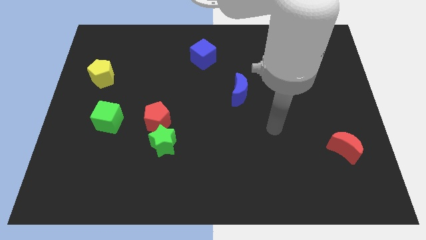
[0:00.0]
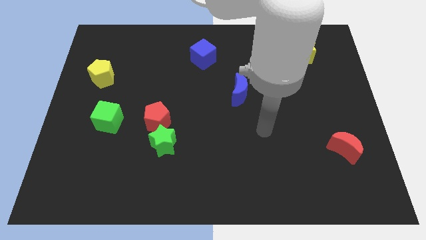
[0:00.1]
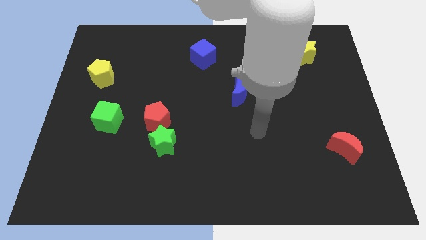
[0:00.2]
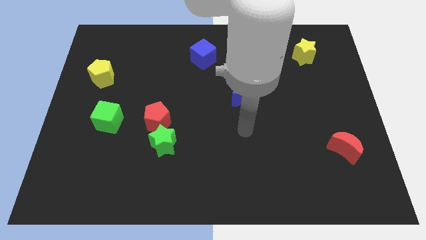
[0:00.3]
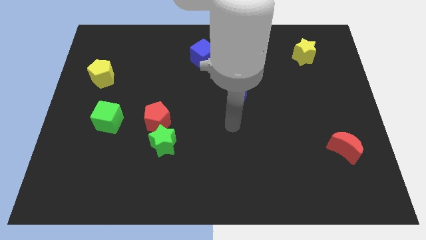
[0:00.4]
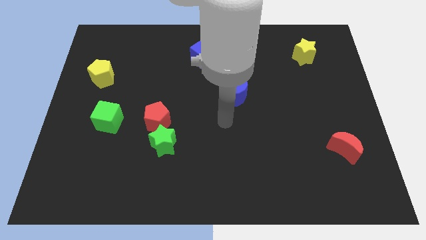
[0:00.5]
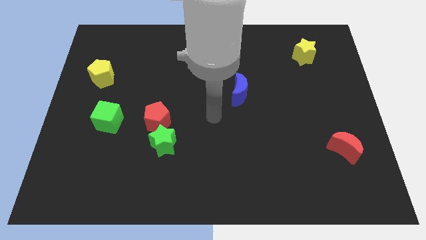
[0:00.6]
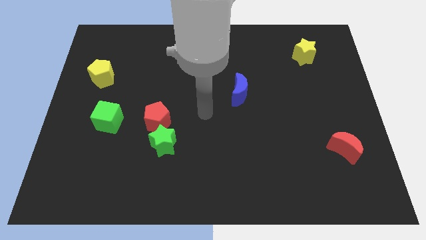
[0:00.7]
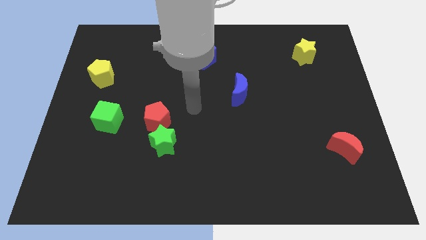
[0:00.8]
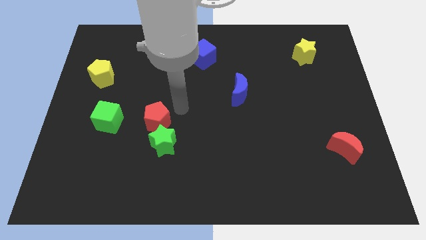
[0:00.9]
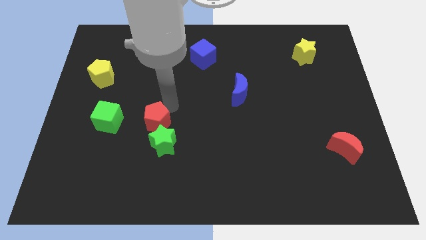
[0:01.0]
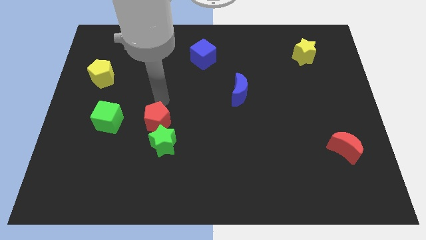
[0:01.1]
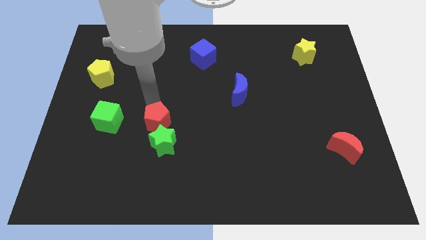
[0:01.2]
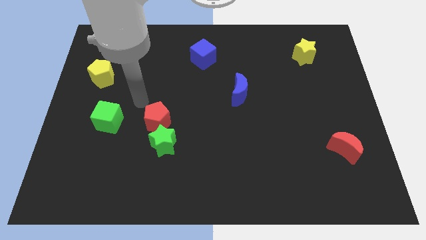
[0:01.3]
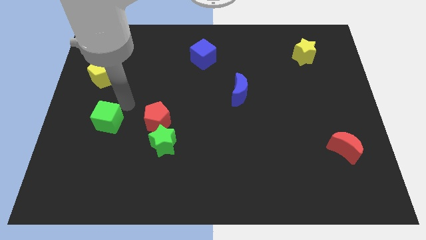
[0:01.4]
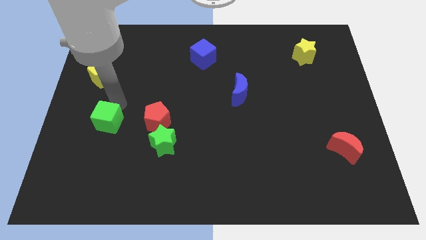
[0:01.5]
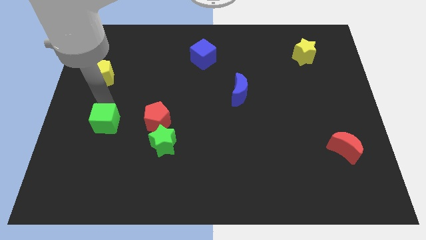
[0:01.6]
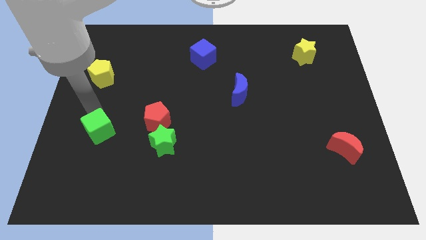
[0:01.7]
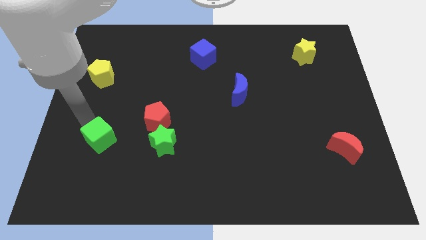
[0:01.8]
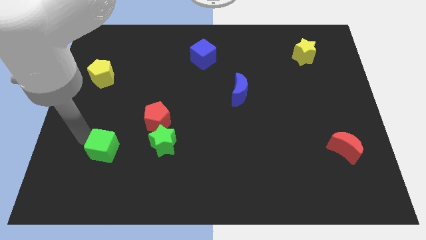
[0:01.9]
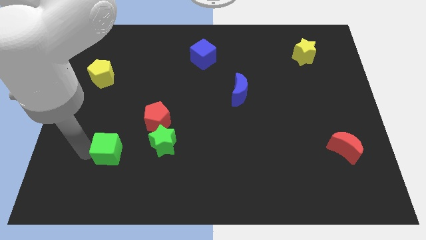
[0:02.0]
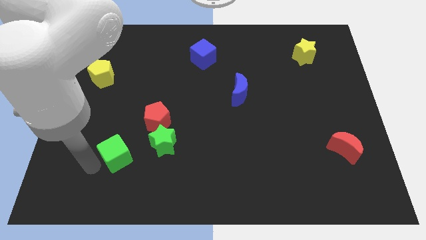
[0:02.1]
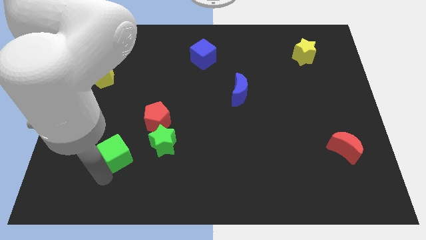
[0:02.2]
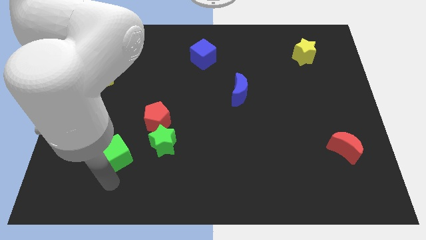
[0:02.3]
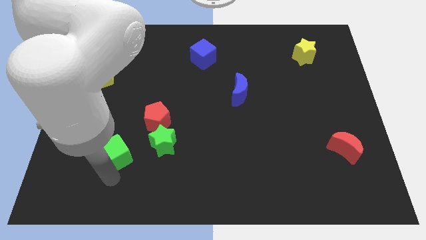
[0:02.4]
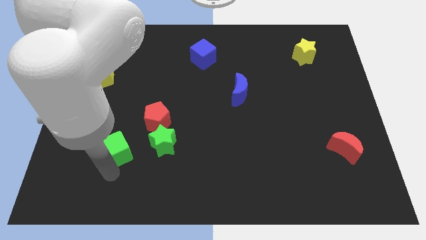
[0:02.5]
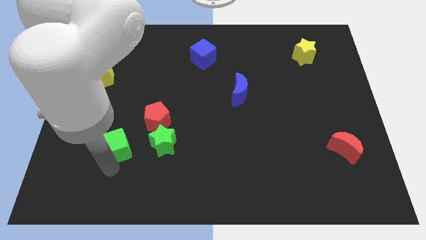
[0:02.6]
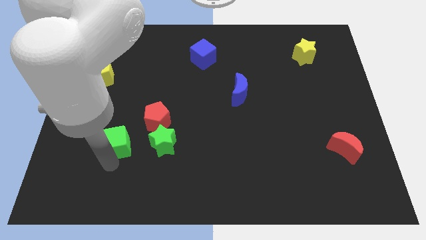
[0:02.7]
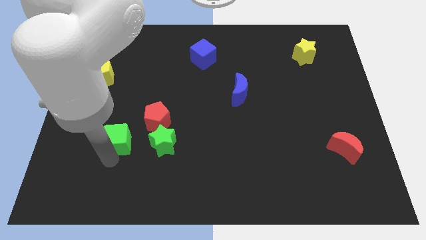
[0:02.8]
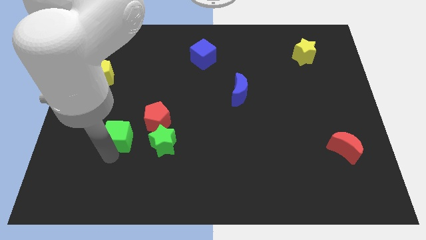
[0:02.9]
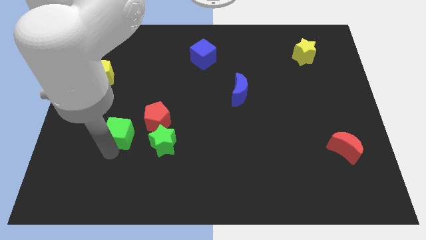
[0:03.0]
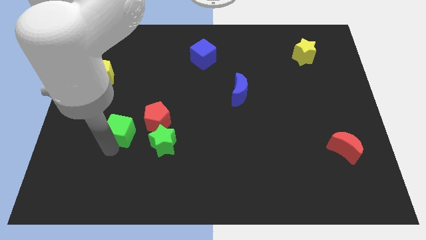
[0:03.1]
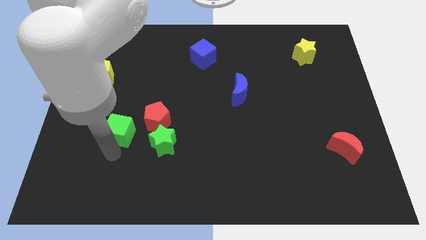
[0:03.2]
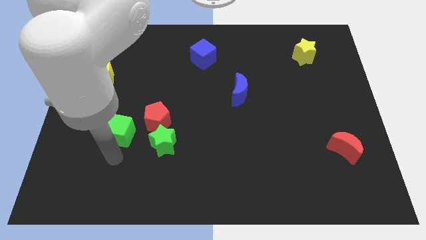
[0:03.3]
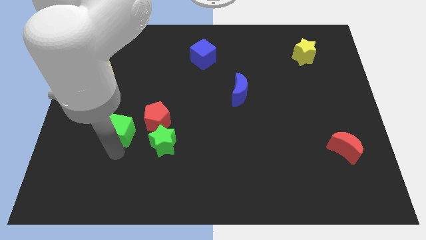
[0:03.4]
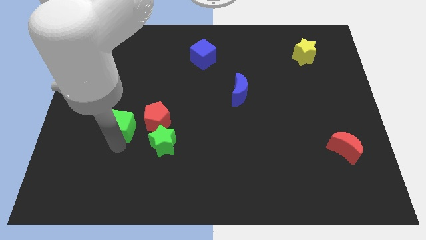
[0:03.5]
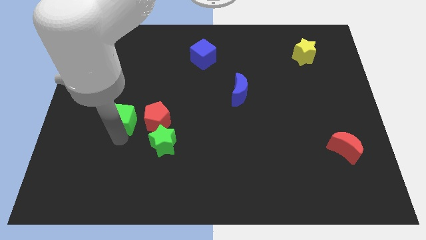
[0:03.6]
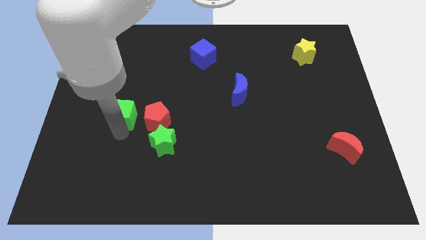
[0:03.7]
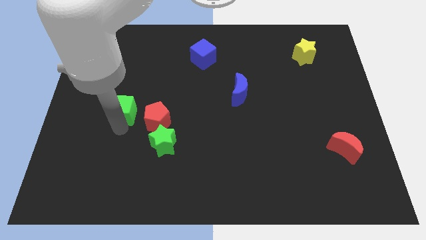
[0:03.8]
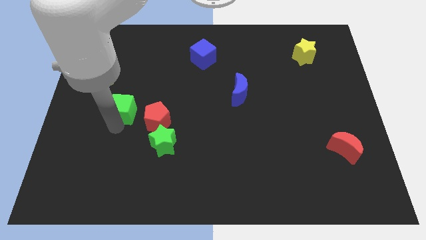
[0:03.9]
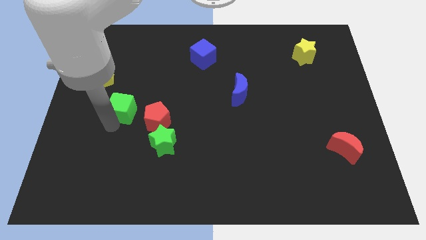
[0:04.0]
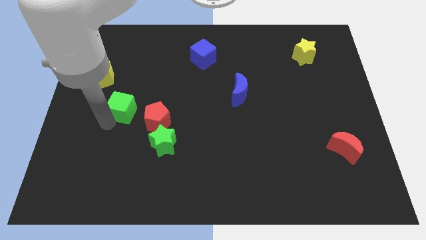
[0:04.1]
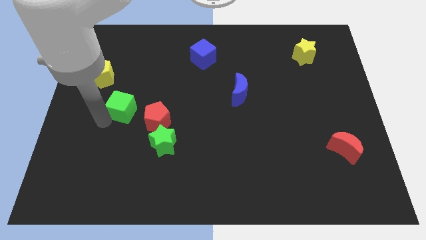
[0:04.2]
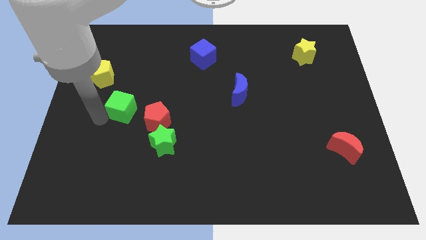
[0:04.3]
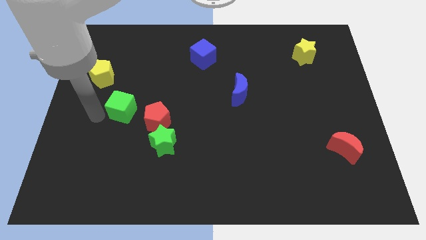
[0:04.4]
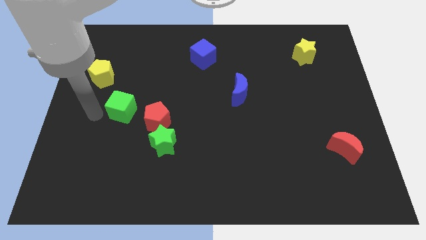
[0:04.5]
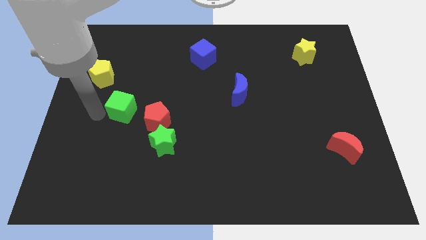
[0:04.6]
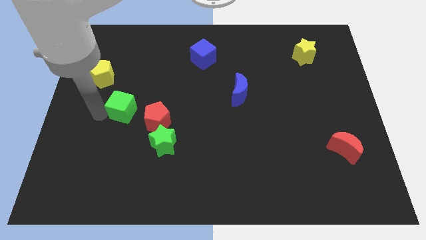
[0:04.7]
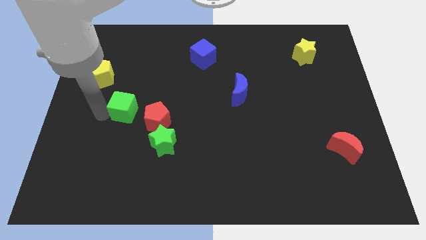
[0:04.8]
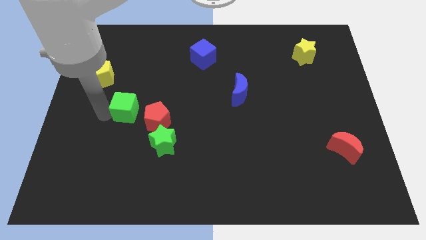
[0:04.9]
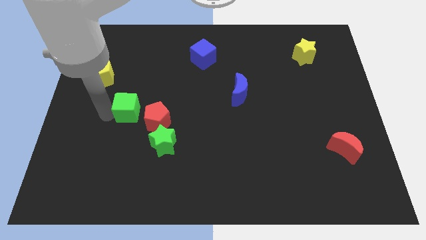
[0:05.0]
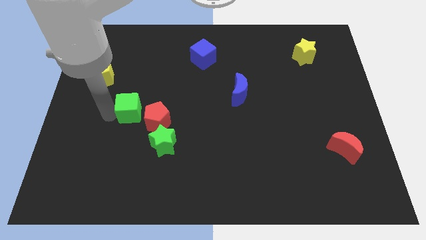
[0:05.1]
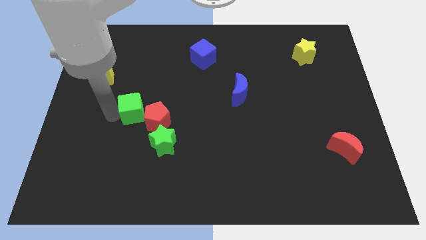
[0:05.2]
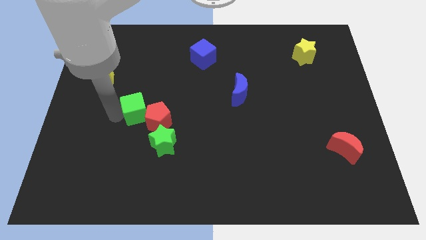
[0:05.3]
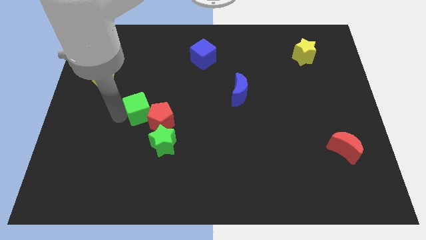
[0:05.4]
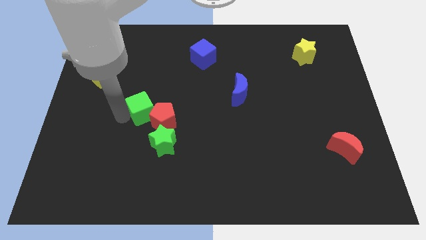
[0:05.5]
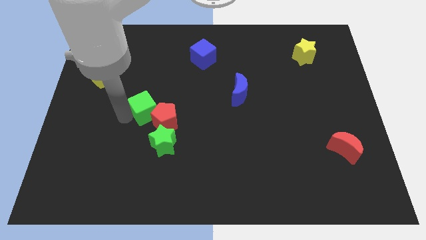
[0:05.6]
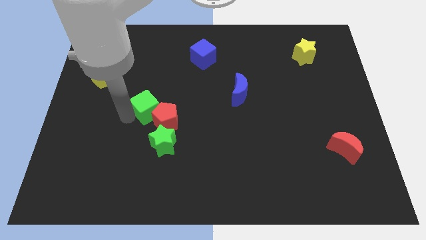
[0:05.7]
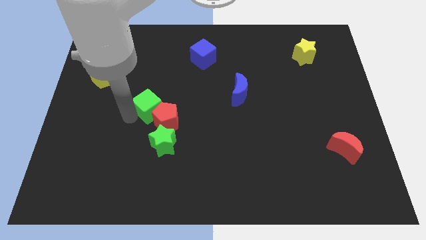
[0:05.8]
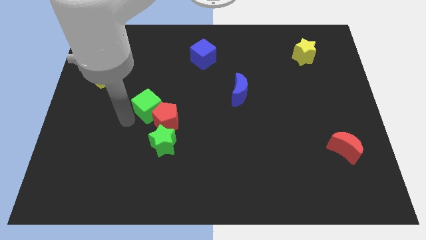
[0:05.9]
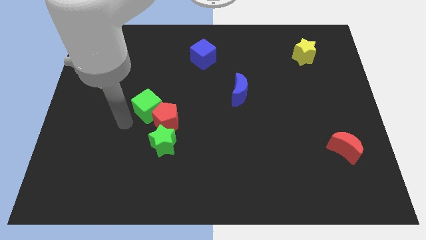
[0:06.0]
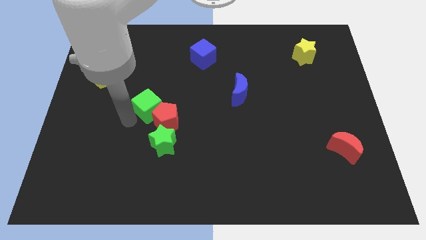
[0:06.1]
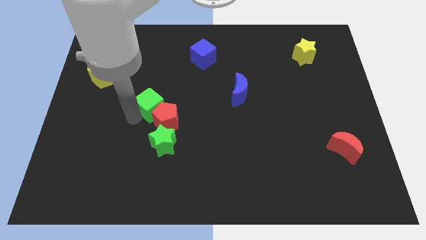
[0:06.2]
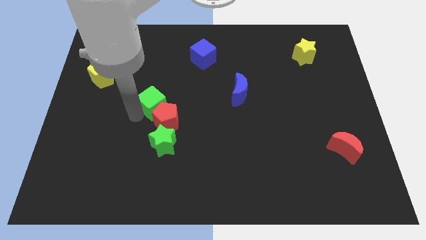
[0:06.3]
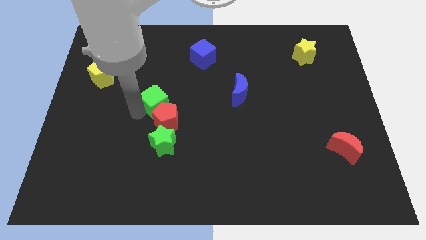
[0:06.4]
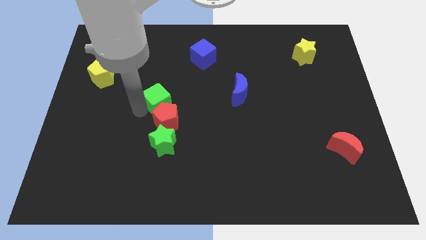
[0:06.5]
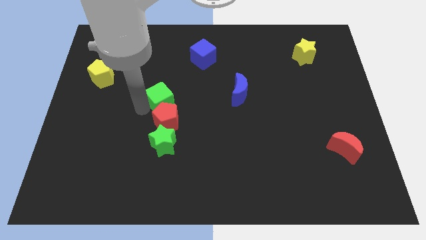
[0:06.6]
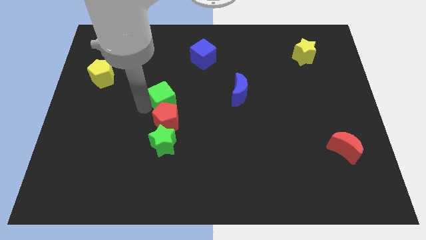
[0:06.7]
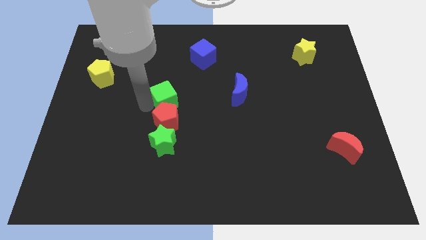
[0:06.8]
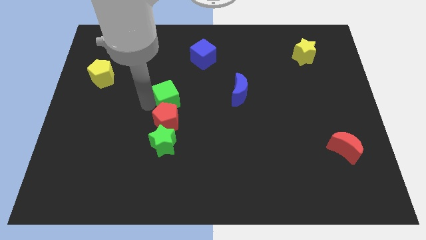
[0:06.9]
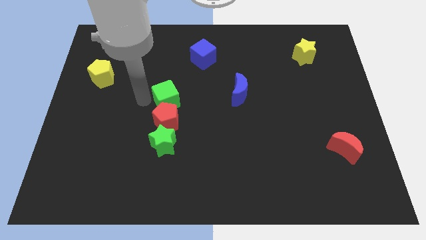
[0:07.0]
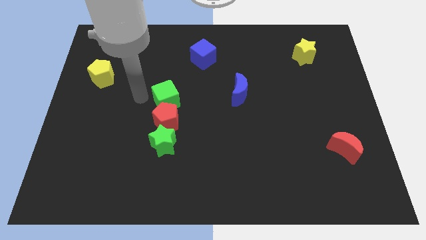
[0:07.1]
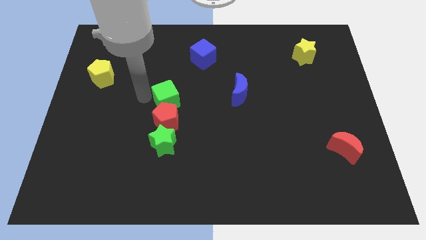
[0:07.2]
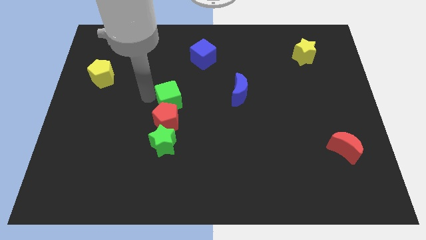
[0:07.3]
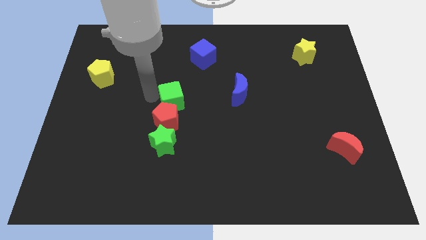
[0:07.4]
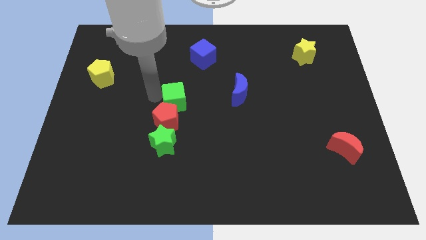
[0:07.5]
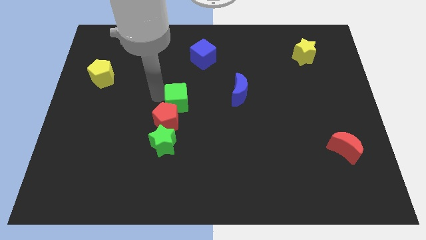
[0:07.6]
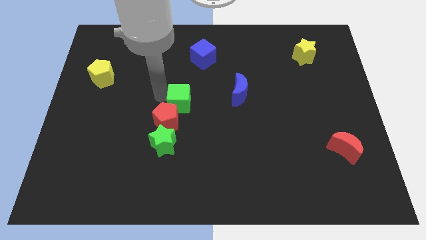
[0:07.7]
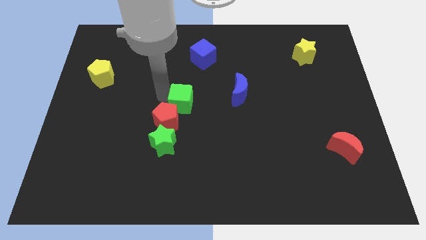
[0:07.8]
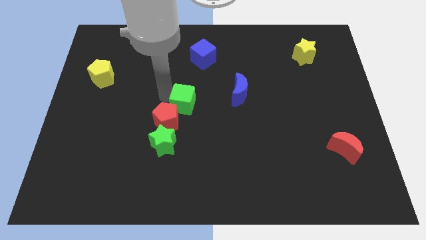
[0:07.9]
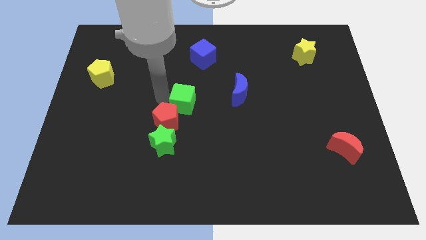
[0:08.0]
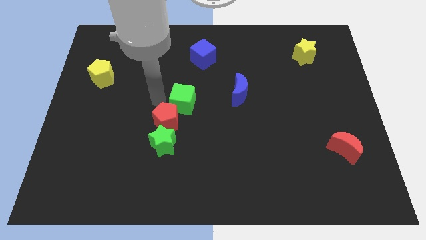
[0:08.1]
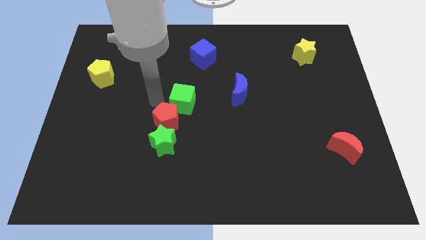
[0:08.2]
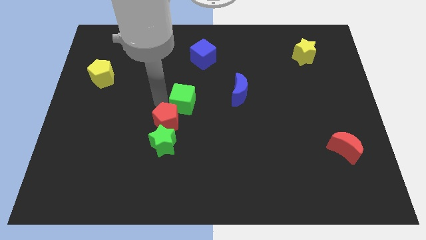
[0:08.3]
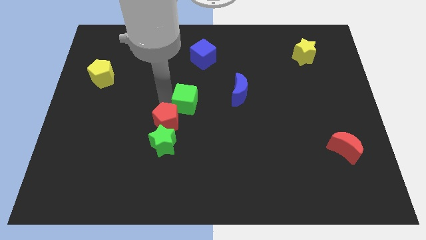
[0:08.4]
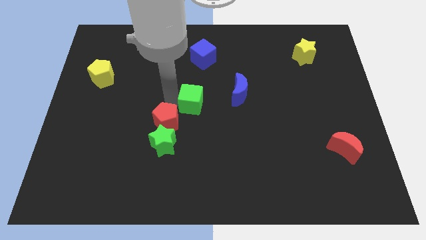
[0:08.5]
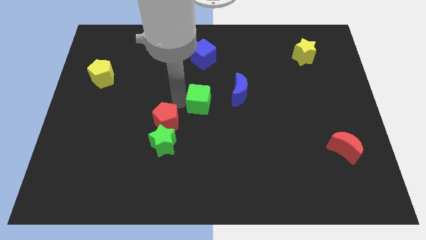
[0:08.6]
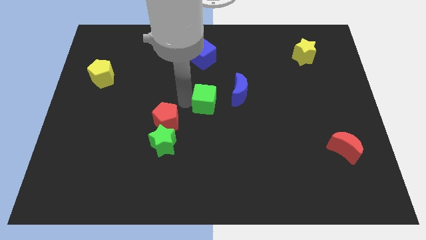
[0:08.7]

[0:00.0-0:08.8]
push the green cube right

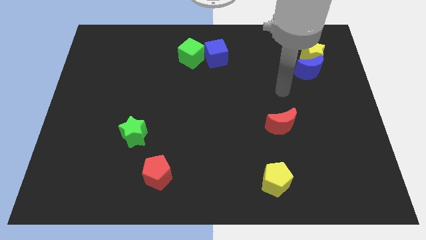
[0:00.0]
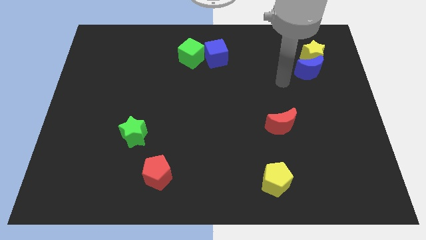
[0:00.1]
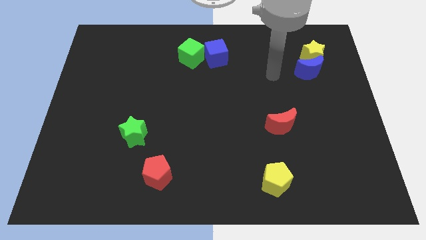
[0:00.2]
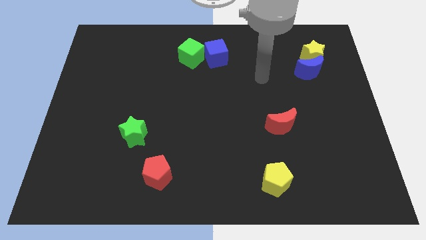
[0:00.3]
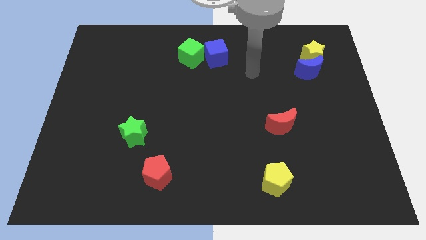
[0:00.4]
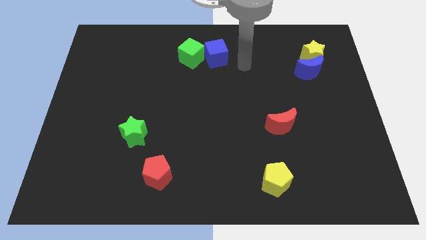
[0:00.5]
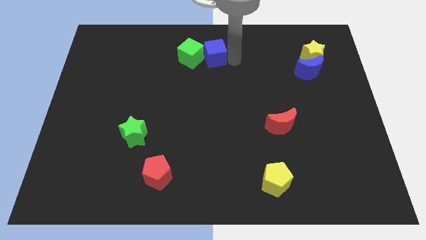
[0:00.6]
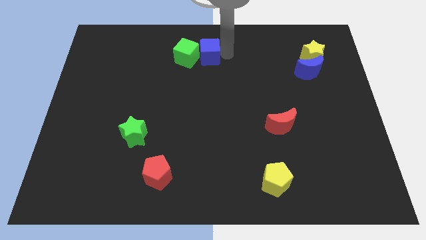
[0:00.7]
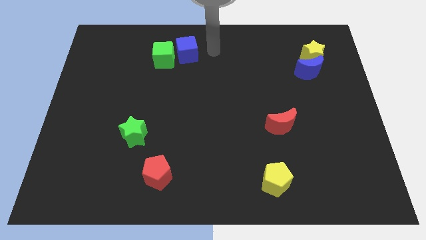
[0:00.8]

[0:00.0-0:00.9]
move the green cube left a bit
